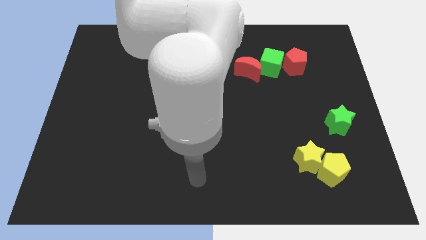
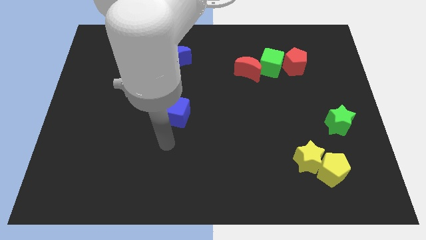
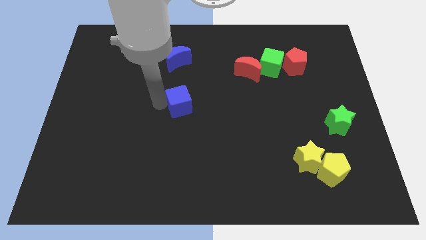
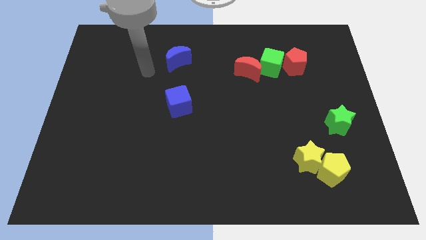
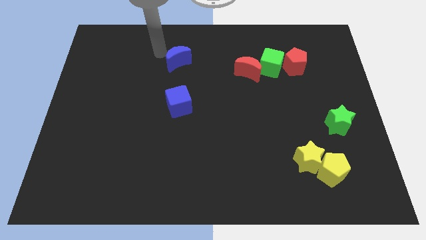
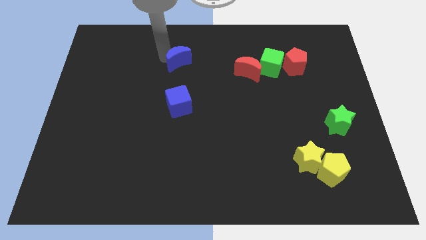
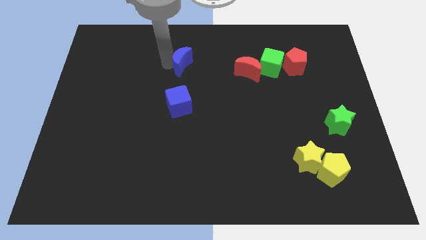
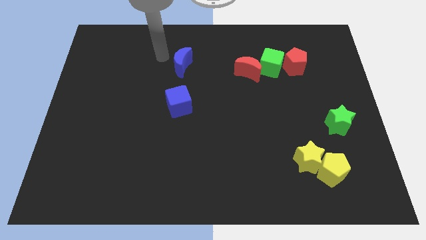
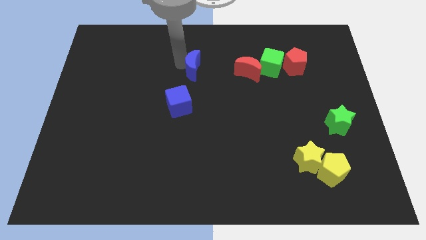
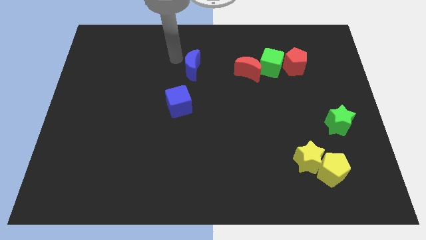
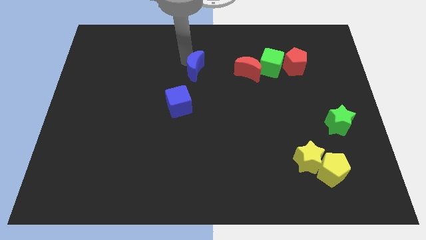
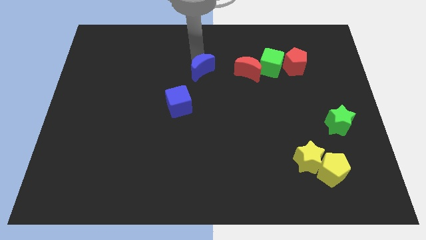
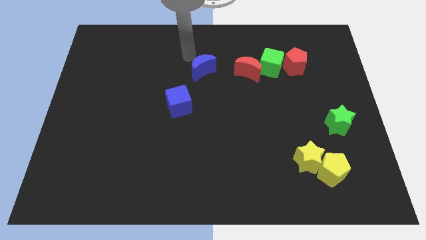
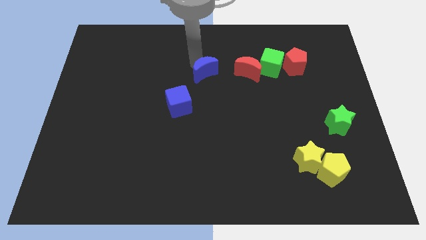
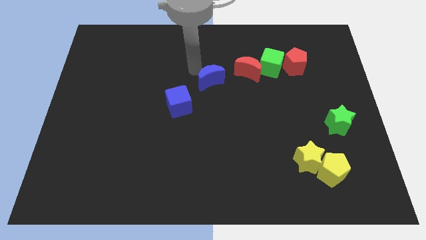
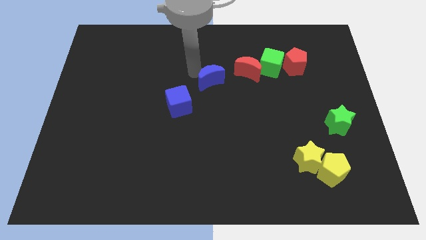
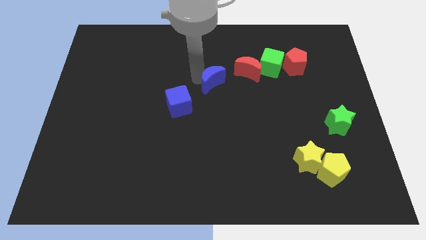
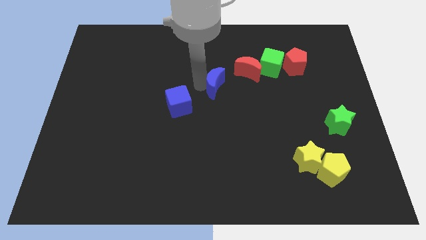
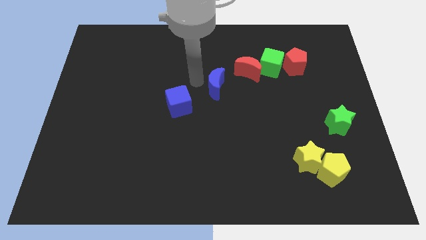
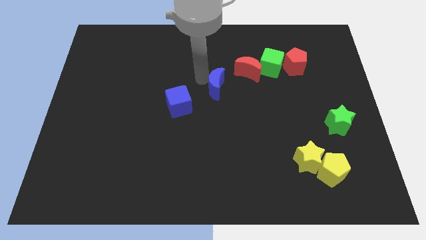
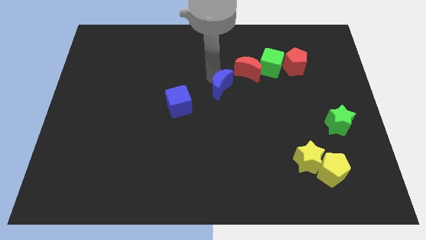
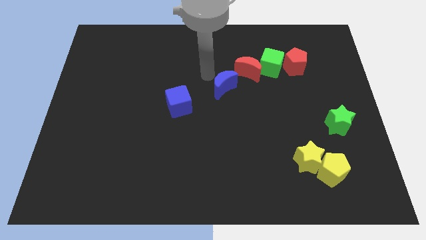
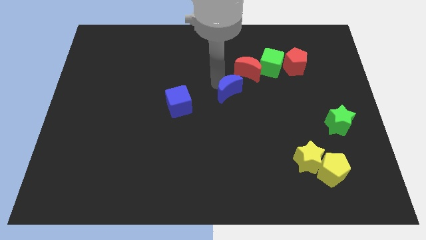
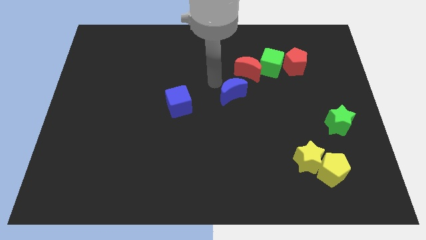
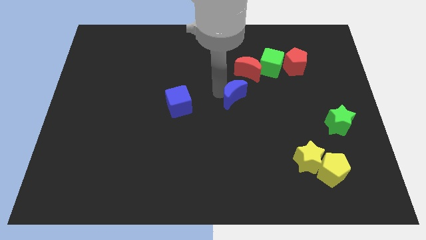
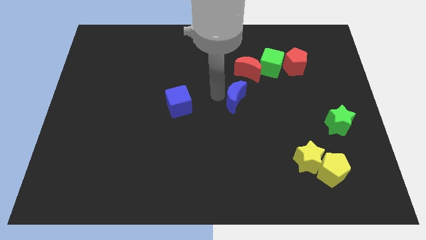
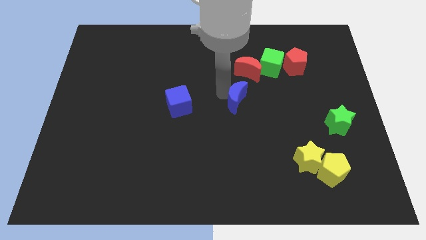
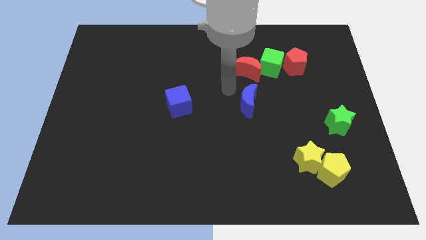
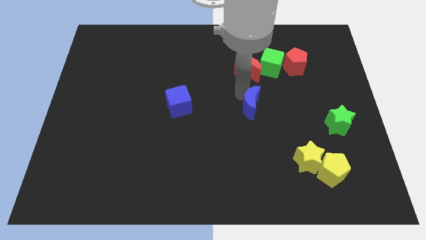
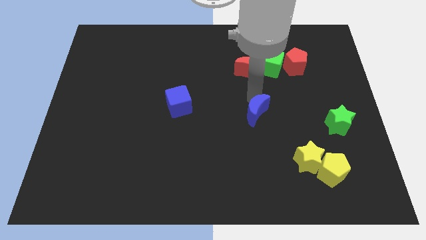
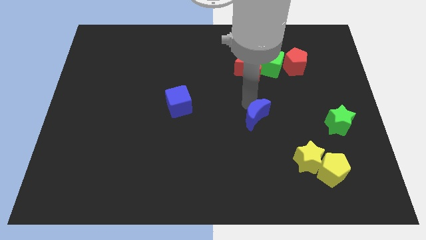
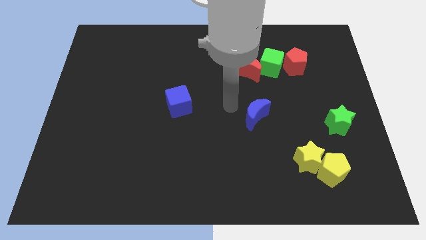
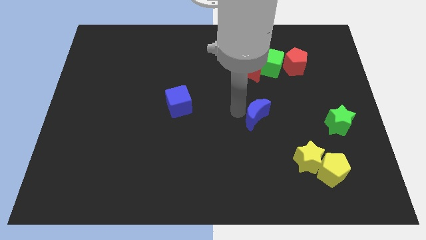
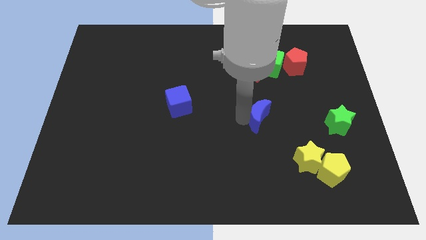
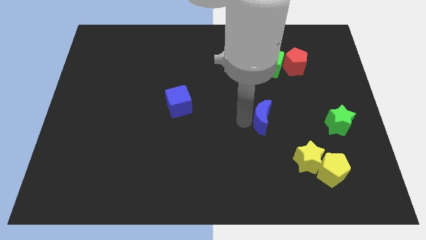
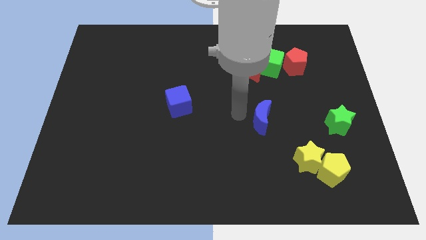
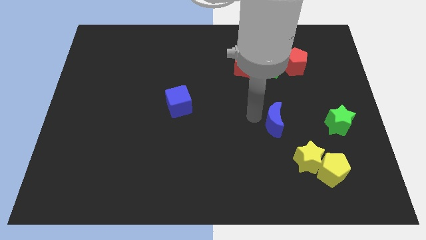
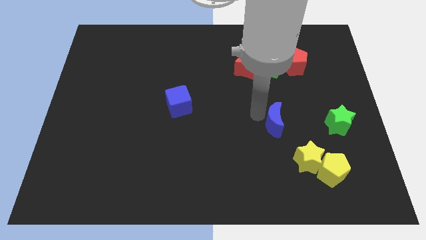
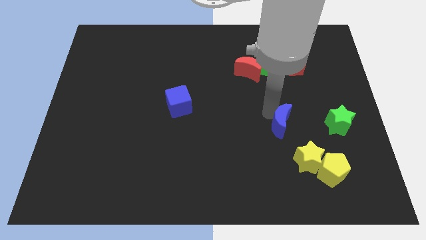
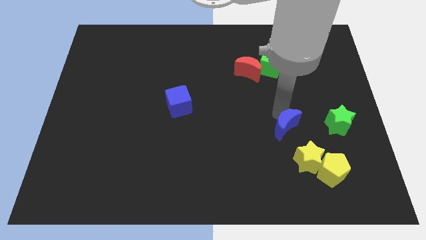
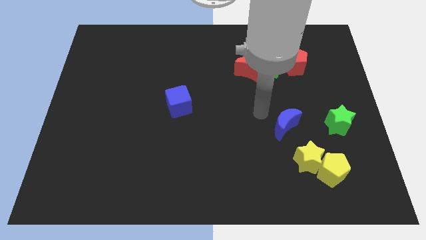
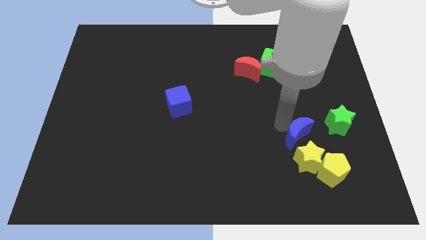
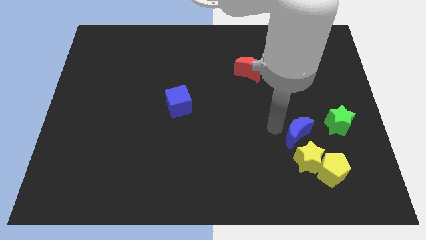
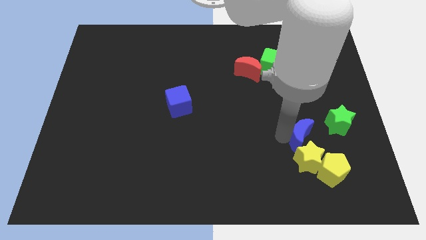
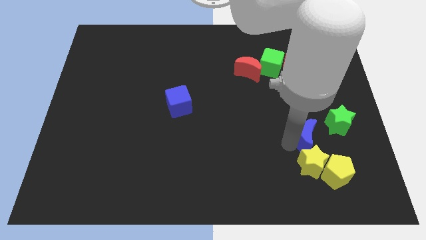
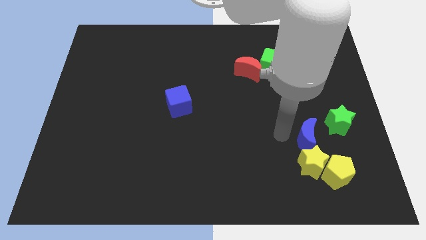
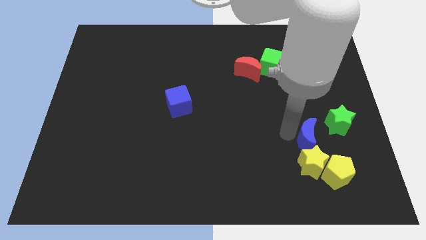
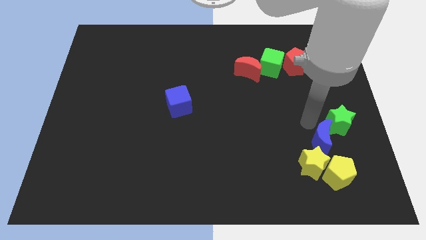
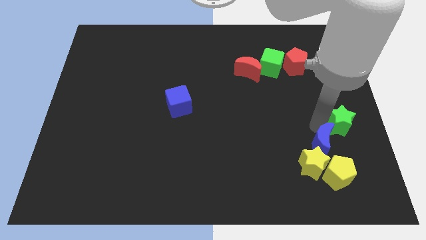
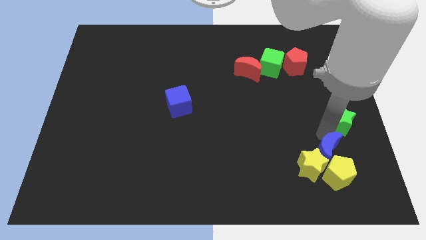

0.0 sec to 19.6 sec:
push the blue moon close to the yellow pentagon

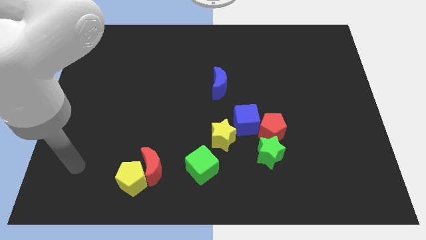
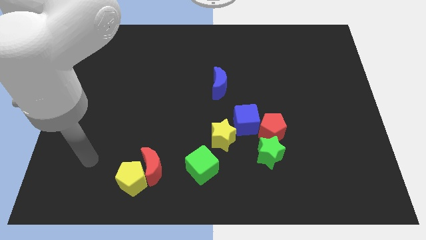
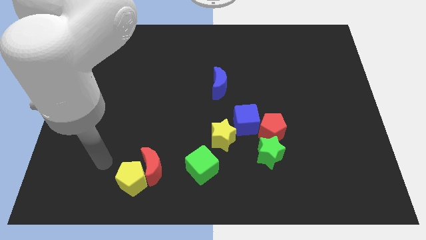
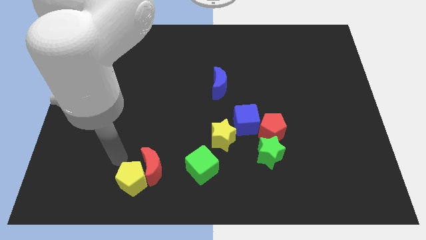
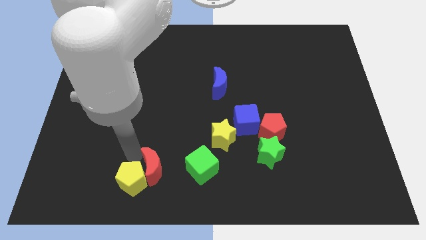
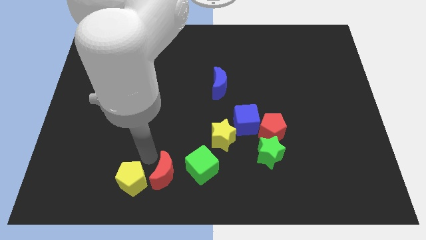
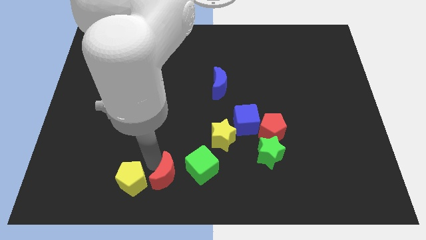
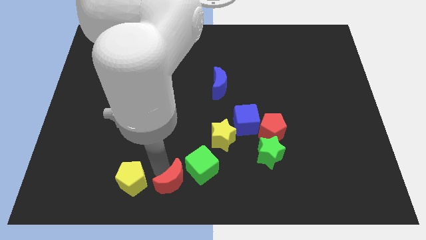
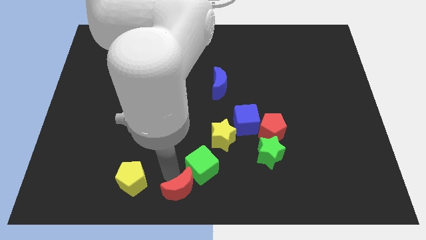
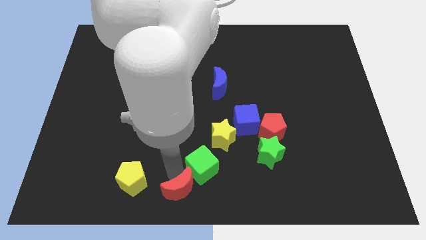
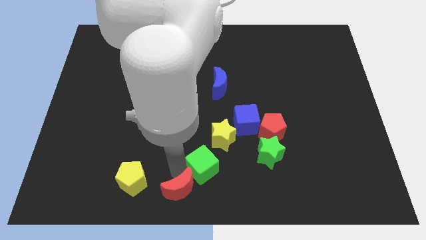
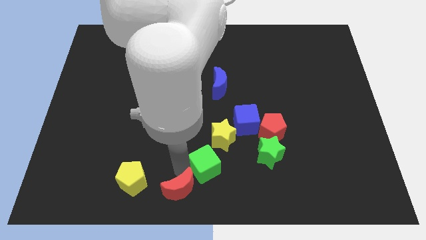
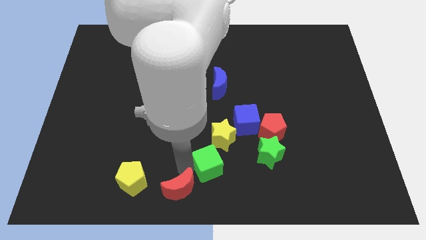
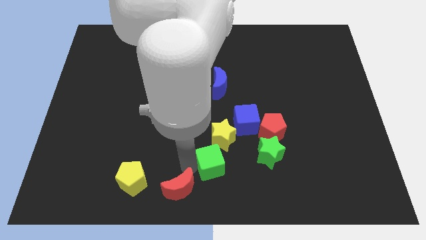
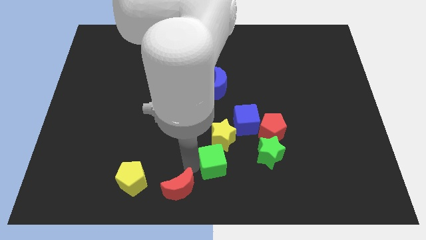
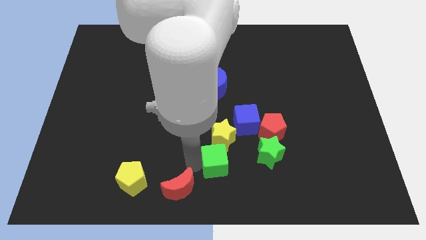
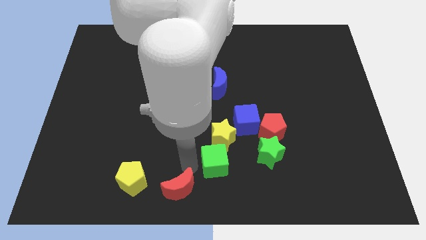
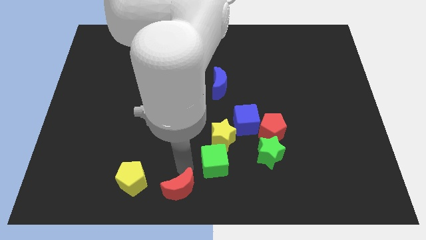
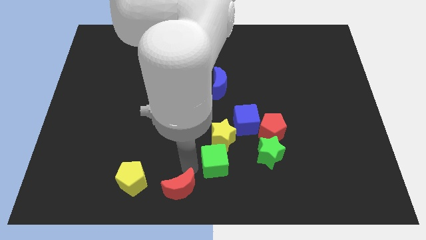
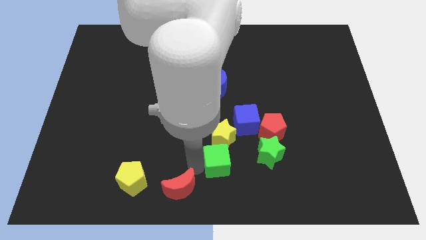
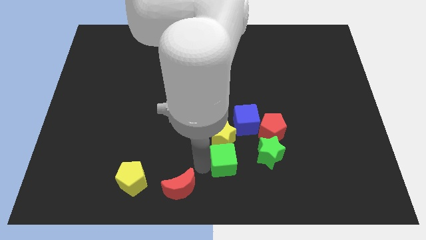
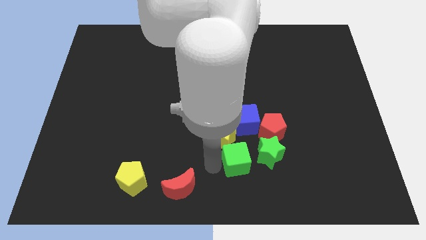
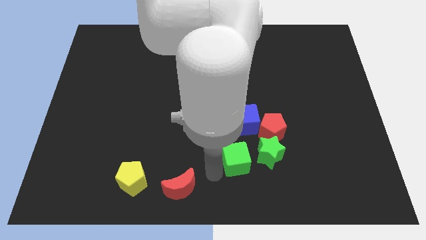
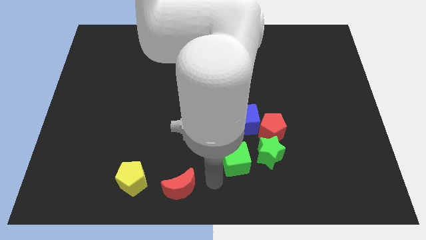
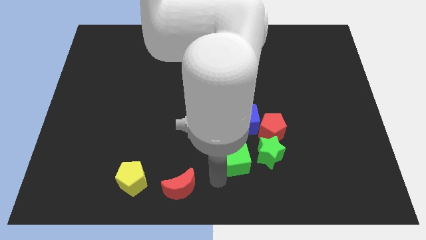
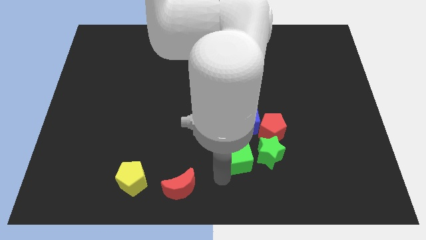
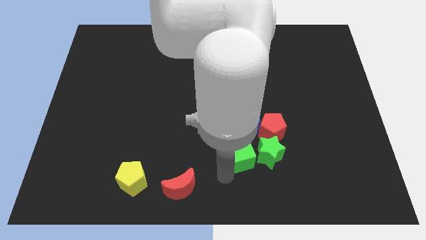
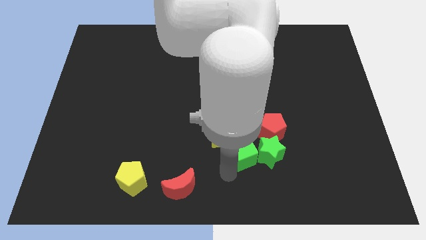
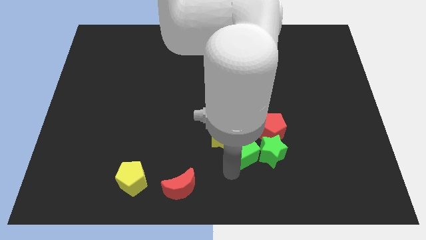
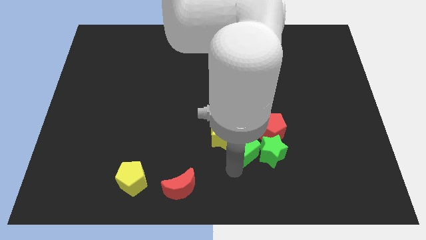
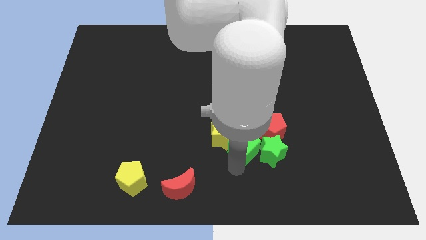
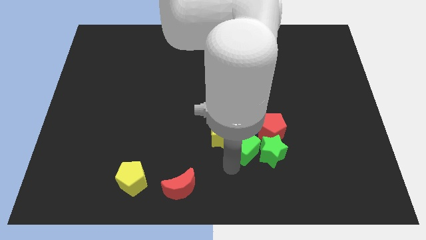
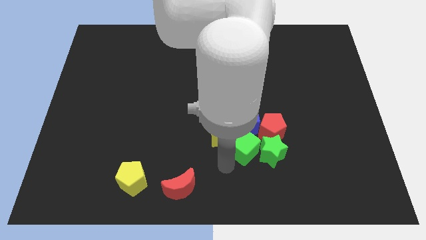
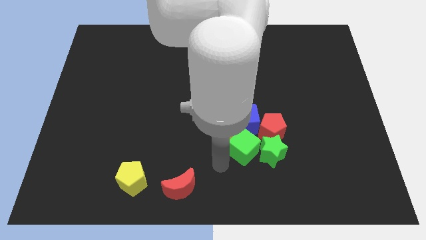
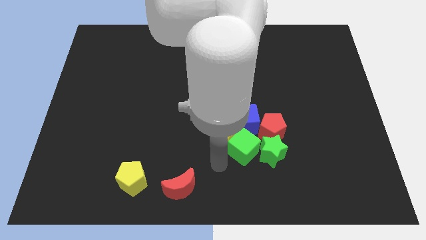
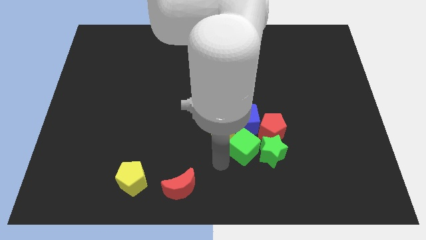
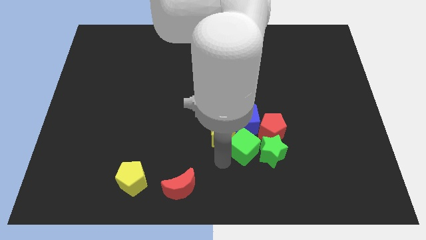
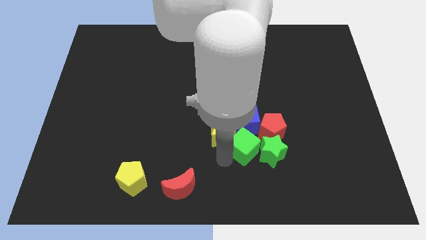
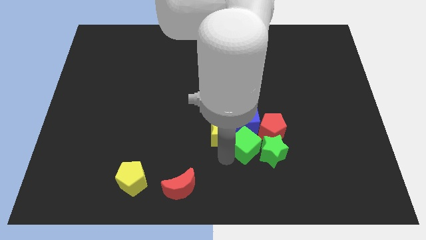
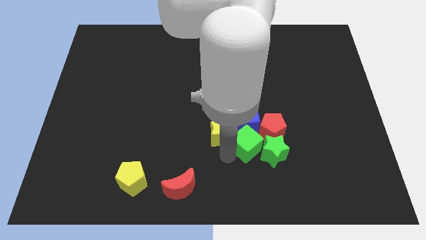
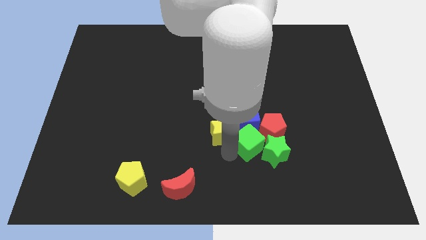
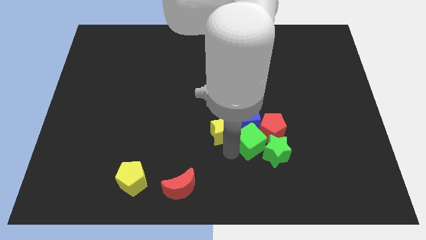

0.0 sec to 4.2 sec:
push the green cube to the red pentagon
